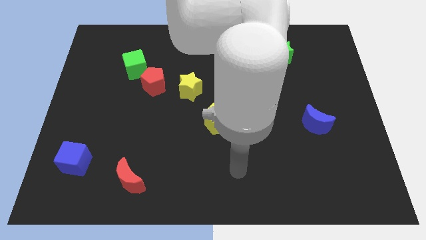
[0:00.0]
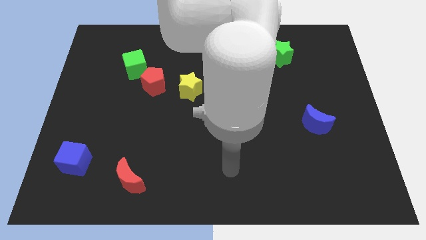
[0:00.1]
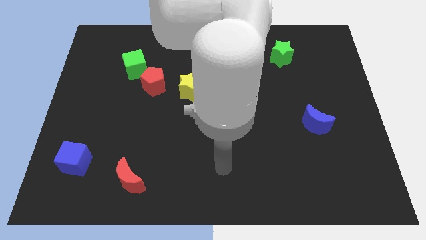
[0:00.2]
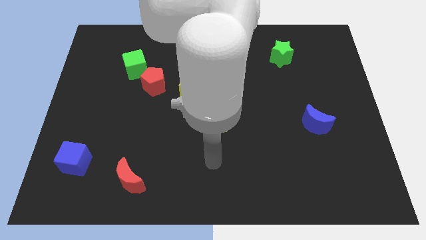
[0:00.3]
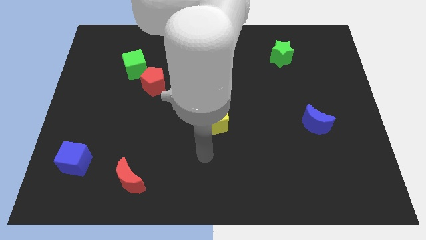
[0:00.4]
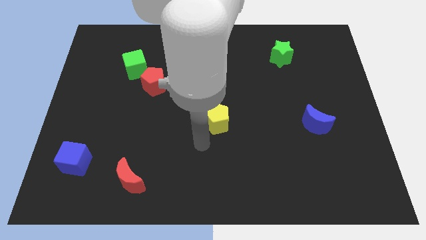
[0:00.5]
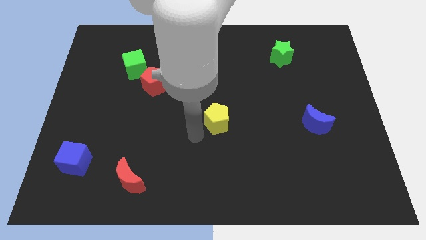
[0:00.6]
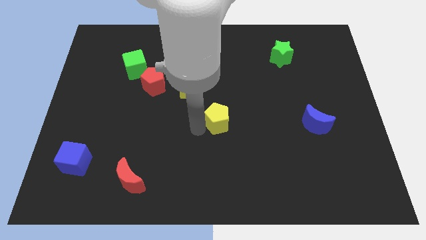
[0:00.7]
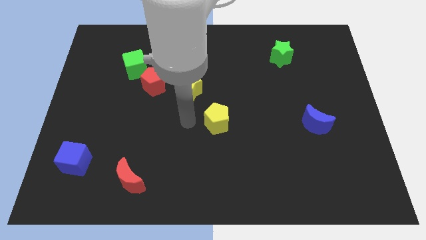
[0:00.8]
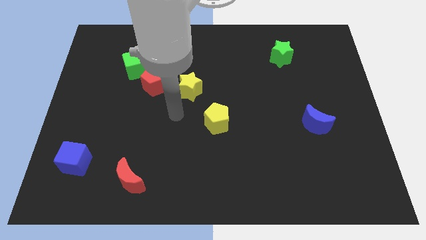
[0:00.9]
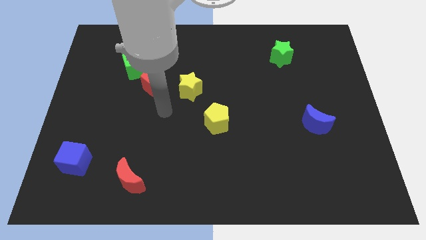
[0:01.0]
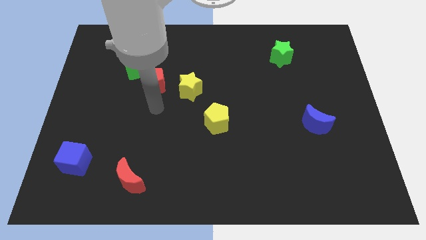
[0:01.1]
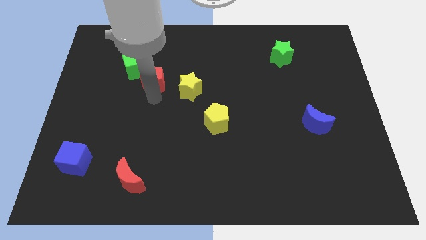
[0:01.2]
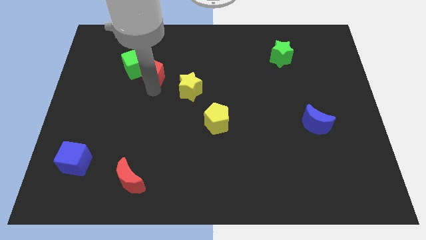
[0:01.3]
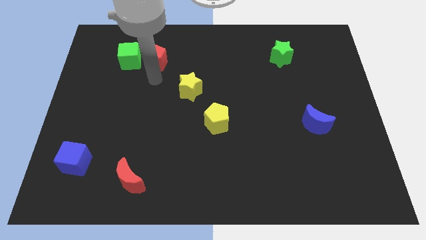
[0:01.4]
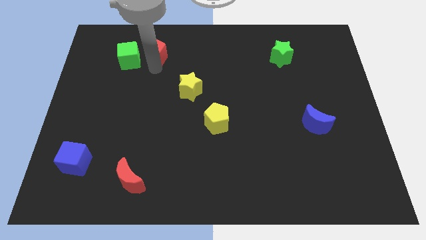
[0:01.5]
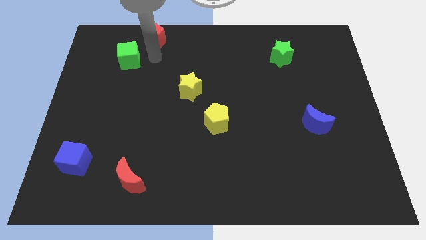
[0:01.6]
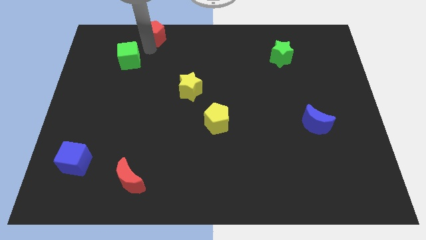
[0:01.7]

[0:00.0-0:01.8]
pull the green cube apart from the red pentagon

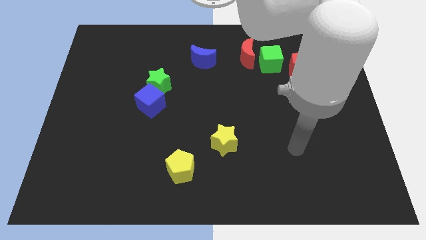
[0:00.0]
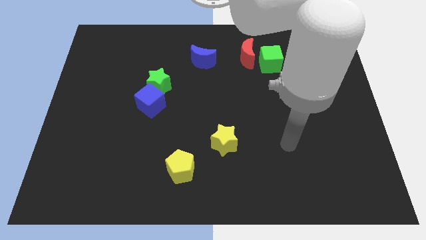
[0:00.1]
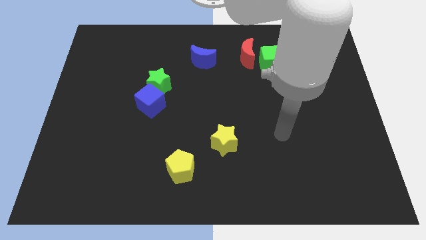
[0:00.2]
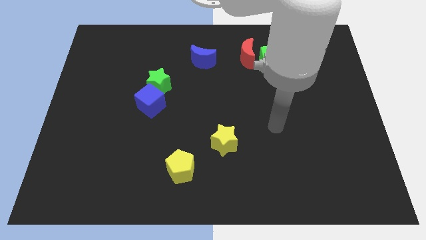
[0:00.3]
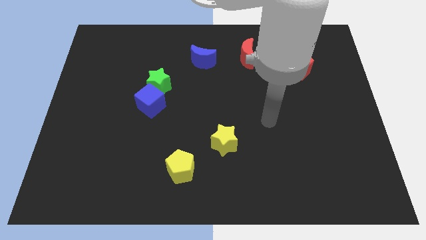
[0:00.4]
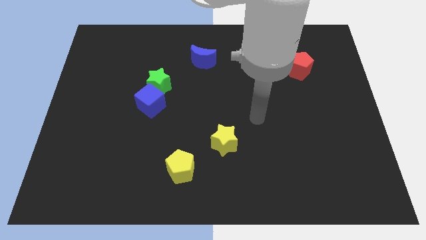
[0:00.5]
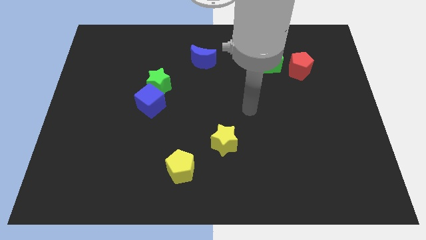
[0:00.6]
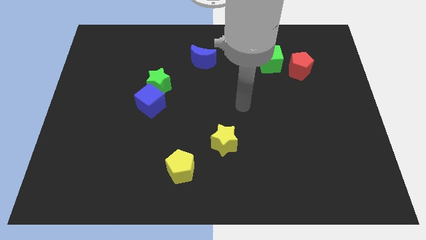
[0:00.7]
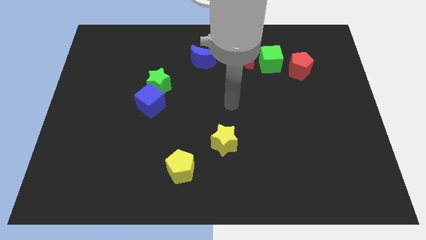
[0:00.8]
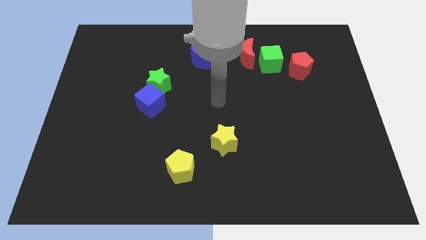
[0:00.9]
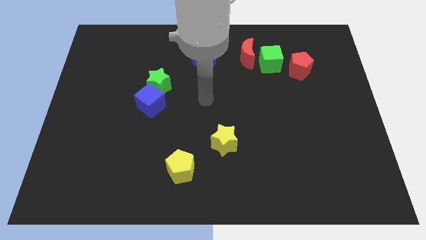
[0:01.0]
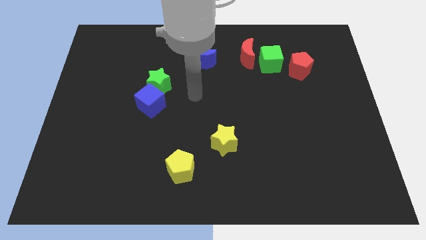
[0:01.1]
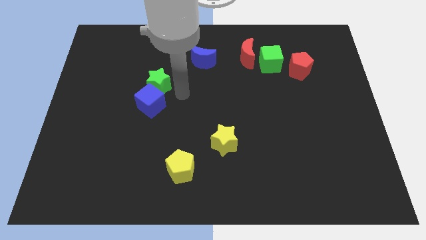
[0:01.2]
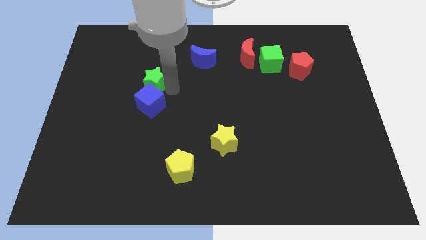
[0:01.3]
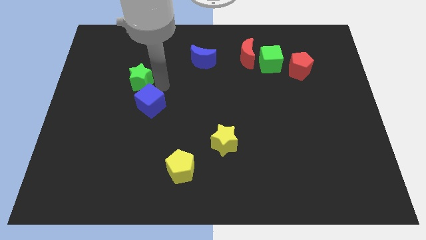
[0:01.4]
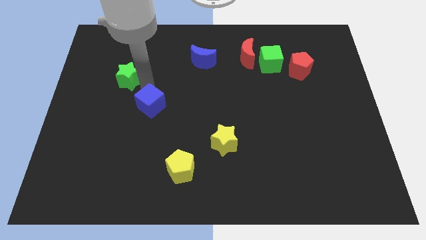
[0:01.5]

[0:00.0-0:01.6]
pull the blue cube apart from the green star

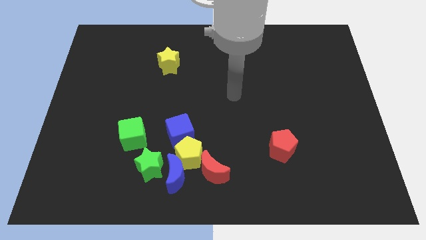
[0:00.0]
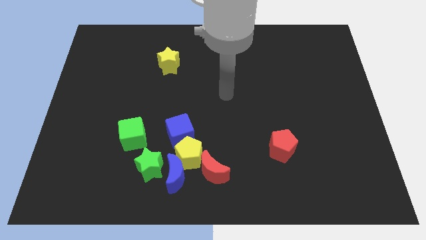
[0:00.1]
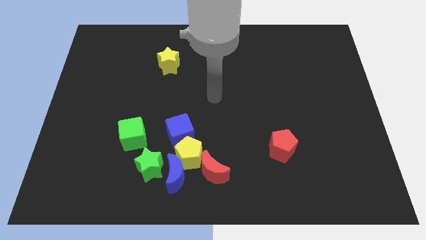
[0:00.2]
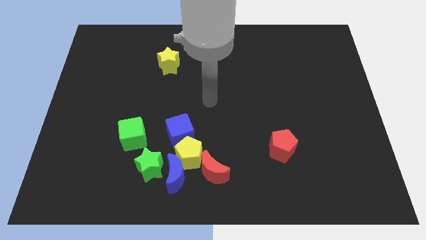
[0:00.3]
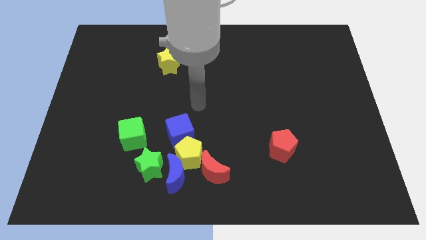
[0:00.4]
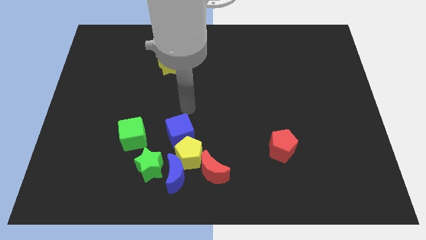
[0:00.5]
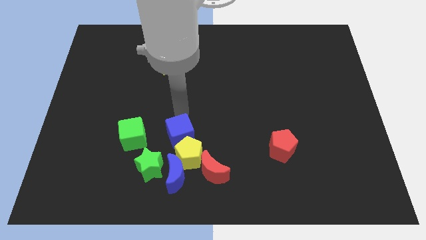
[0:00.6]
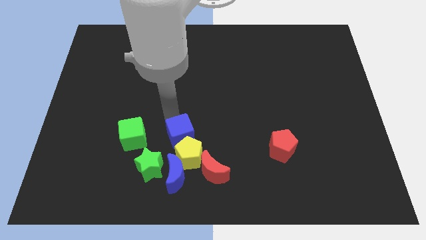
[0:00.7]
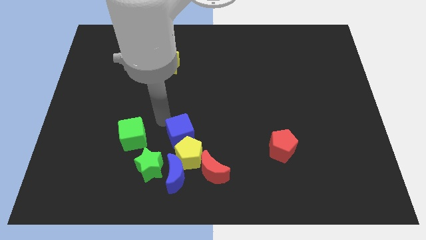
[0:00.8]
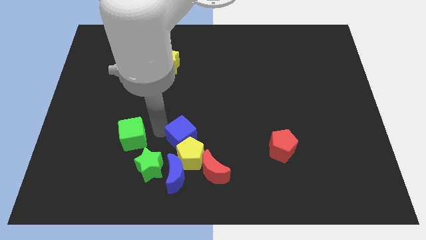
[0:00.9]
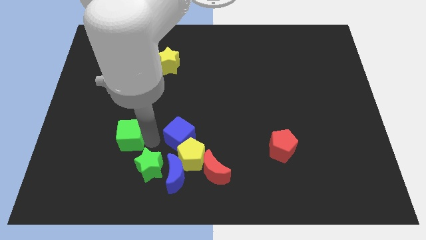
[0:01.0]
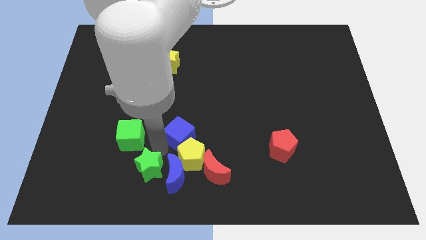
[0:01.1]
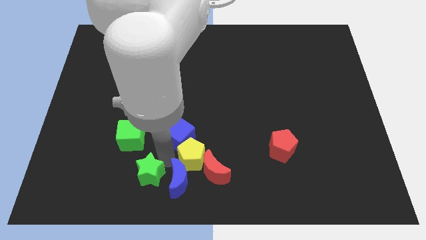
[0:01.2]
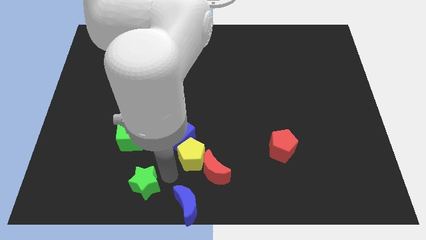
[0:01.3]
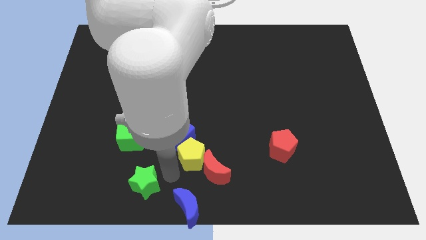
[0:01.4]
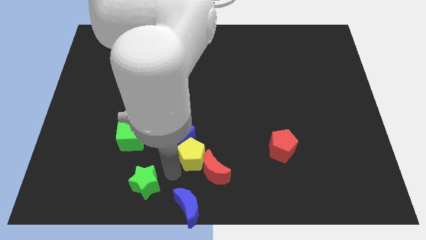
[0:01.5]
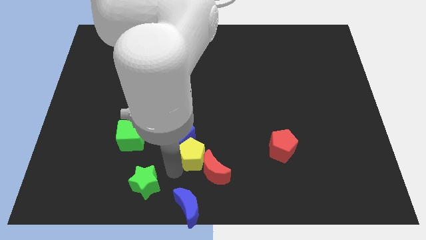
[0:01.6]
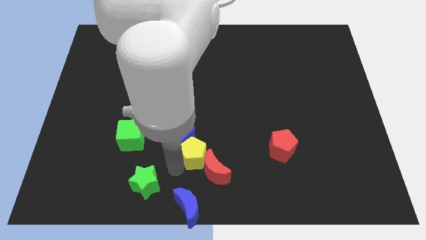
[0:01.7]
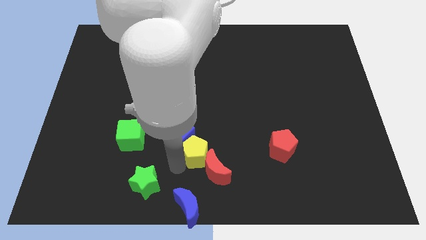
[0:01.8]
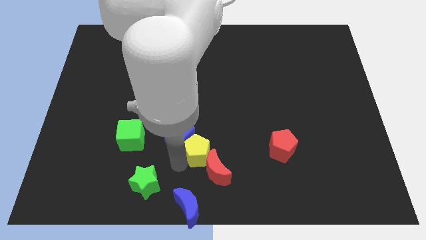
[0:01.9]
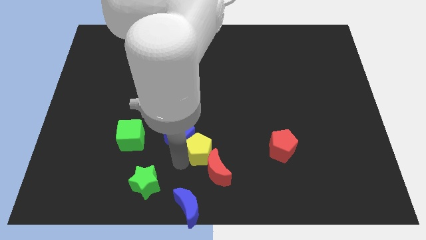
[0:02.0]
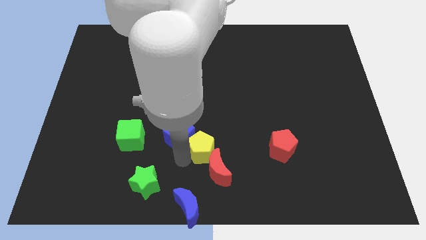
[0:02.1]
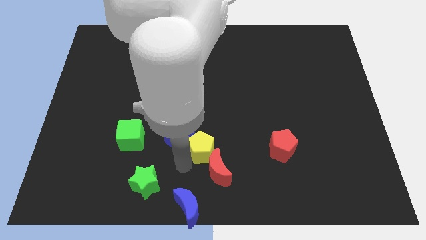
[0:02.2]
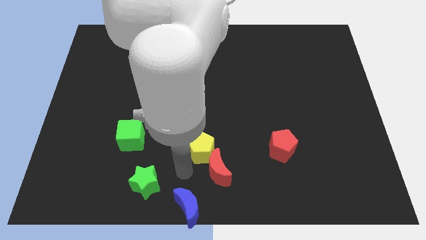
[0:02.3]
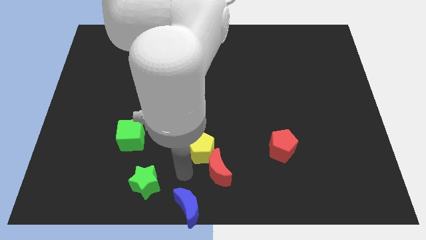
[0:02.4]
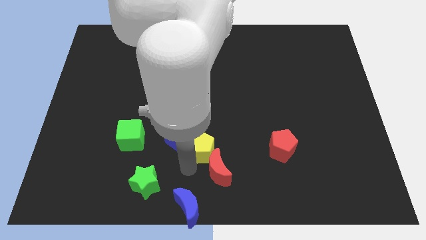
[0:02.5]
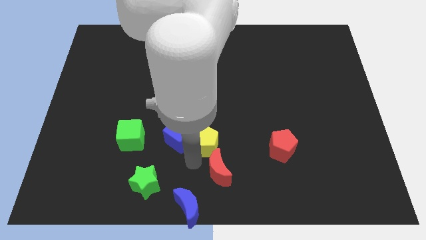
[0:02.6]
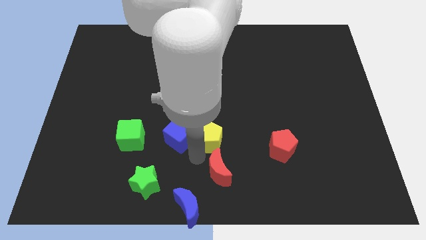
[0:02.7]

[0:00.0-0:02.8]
move the yellow pentagon away from the group of blocks

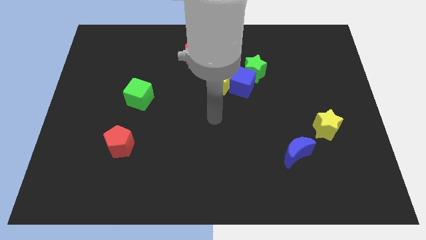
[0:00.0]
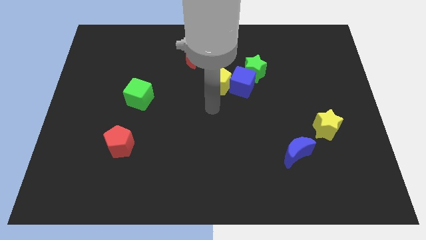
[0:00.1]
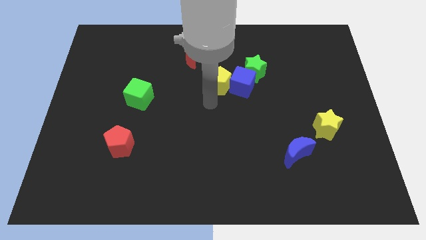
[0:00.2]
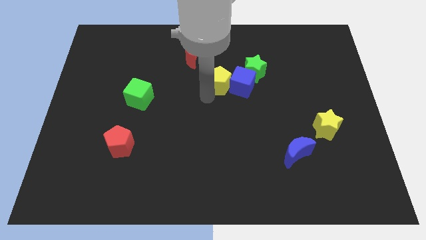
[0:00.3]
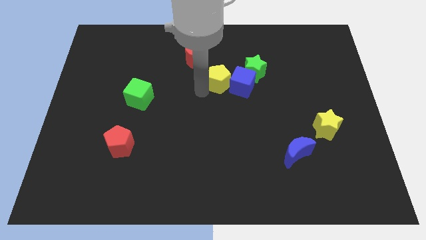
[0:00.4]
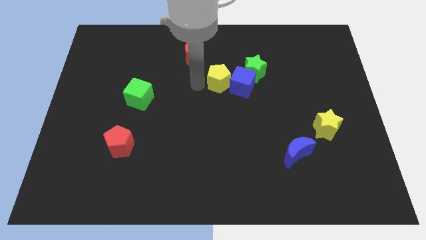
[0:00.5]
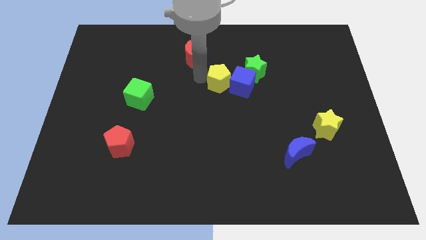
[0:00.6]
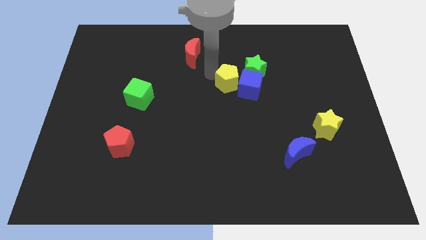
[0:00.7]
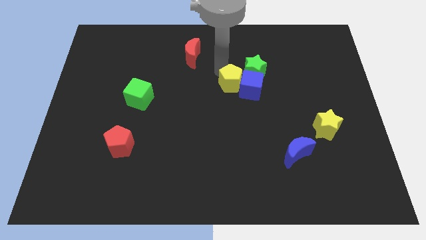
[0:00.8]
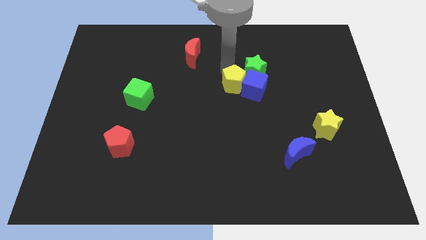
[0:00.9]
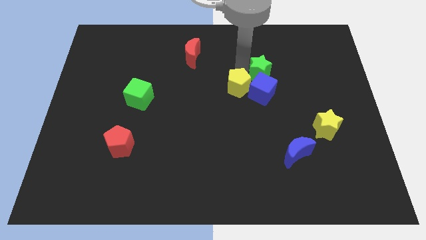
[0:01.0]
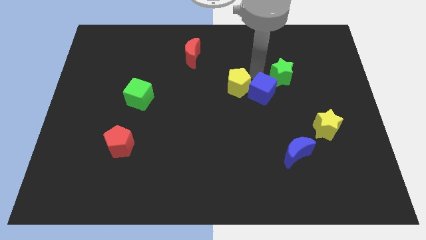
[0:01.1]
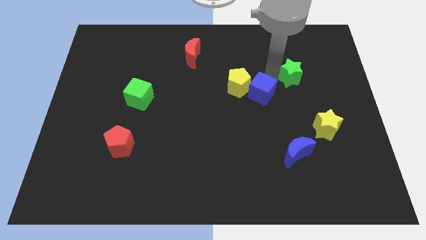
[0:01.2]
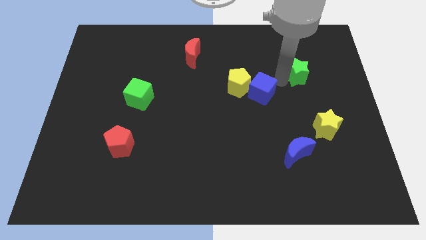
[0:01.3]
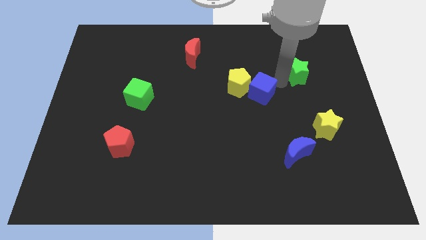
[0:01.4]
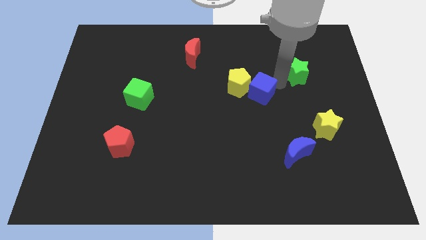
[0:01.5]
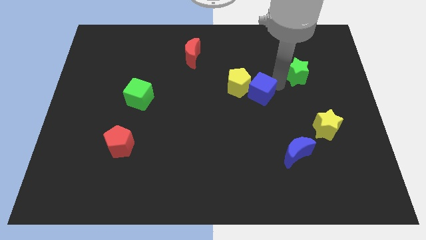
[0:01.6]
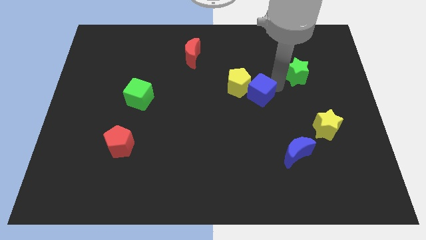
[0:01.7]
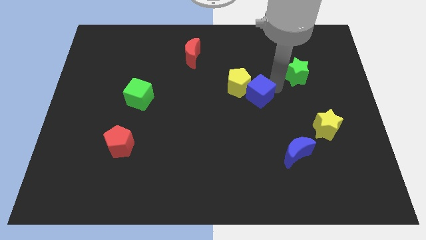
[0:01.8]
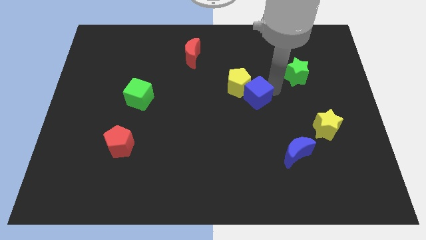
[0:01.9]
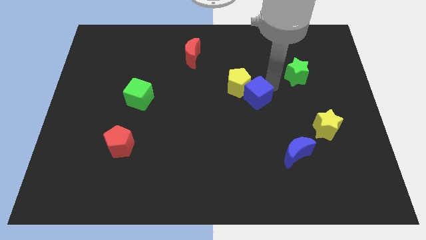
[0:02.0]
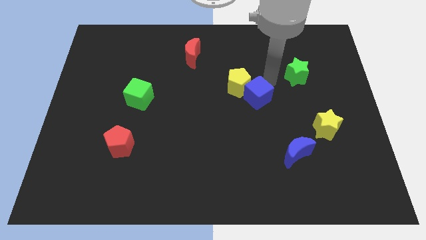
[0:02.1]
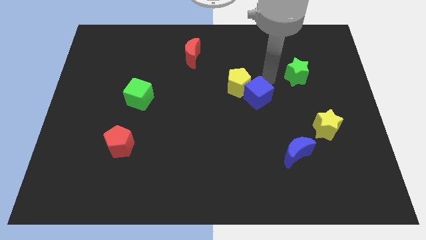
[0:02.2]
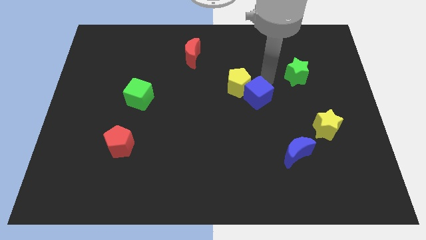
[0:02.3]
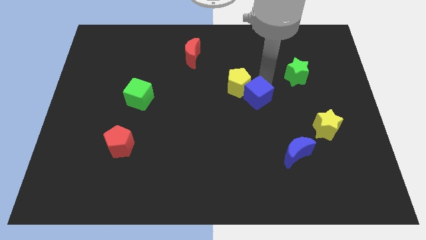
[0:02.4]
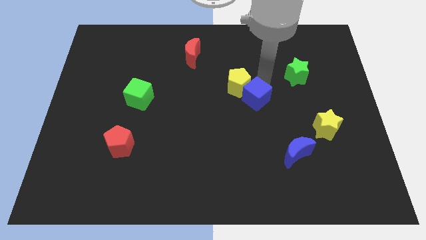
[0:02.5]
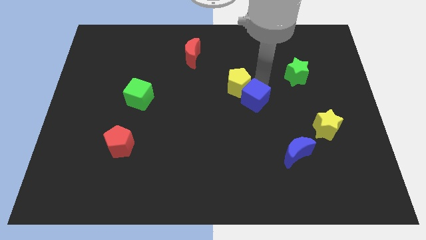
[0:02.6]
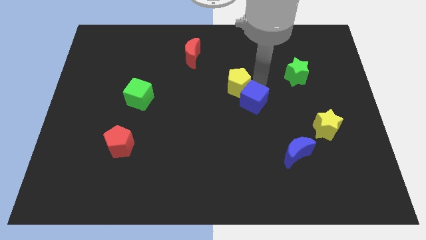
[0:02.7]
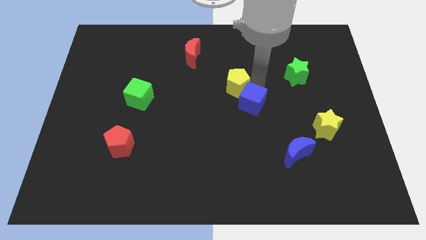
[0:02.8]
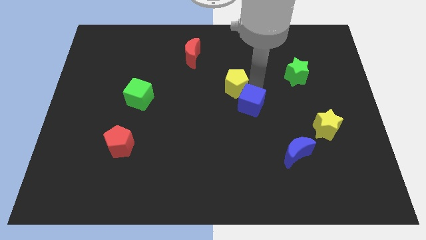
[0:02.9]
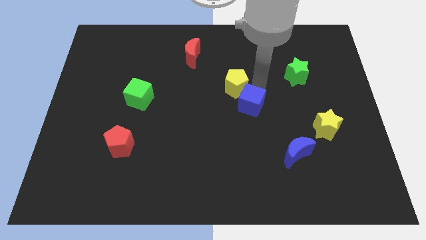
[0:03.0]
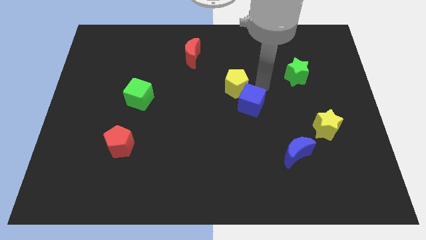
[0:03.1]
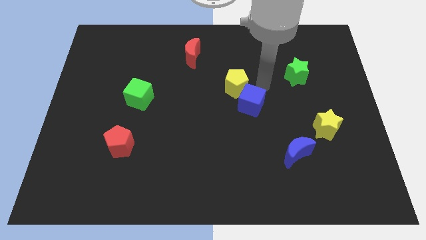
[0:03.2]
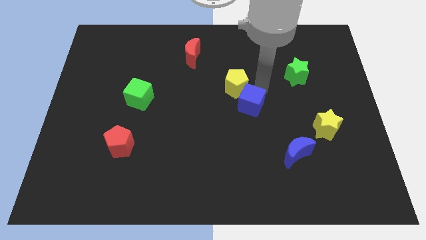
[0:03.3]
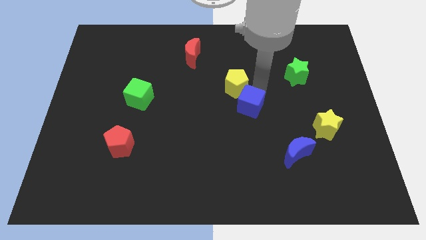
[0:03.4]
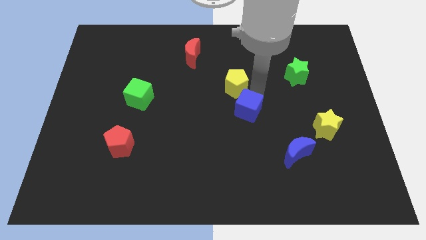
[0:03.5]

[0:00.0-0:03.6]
move the blue cube away from the green star and yellow pentagon
